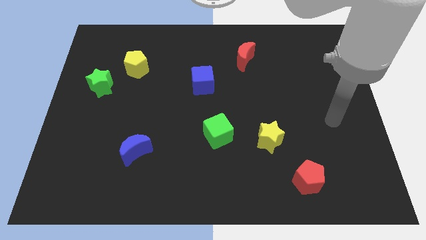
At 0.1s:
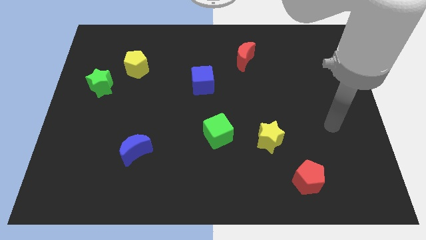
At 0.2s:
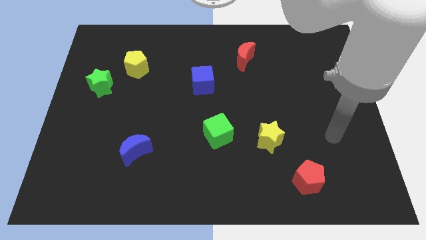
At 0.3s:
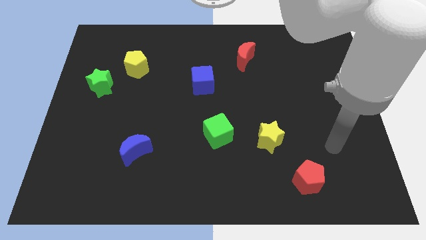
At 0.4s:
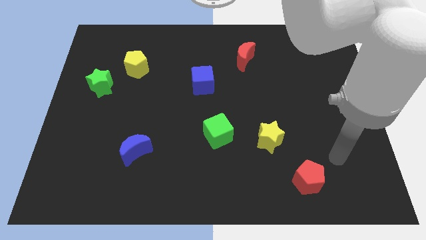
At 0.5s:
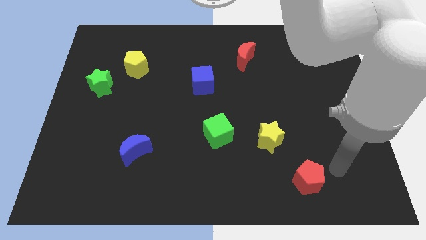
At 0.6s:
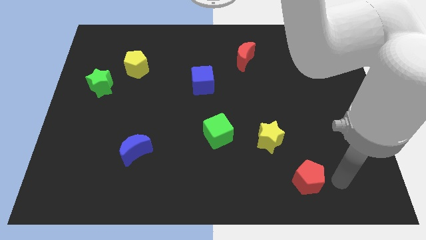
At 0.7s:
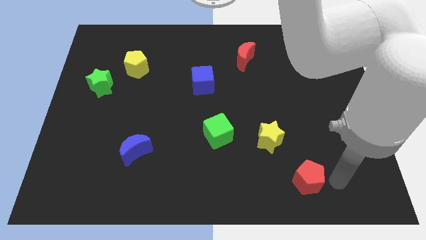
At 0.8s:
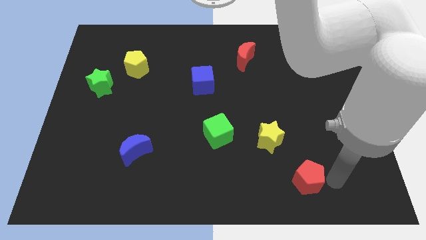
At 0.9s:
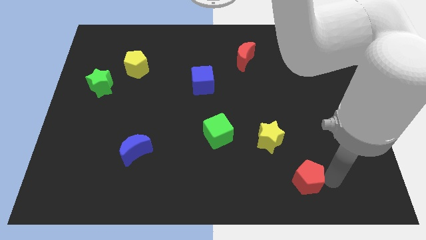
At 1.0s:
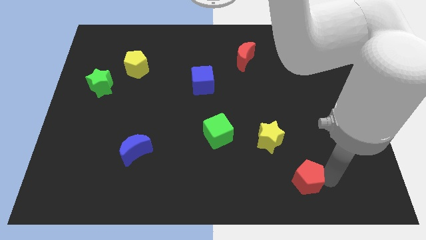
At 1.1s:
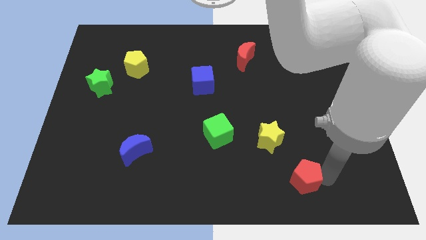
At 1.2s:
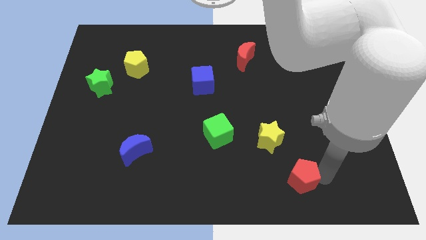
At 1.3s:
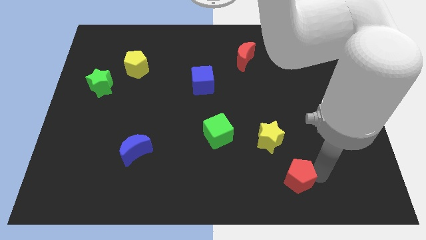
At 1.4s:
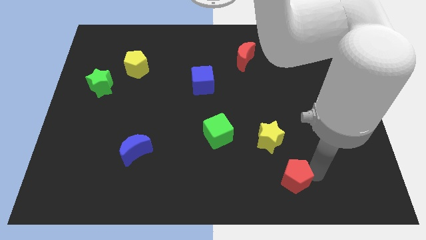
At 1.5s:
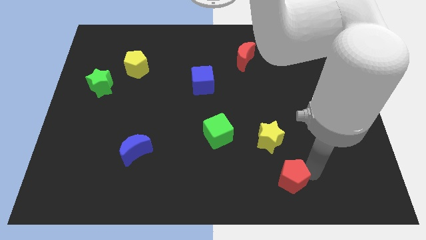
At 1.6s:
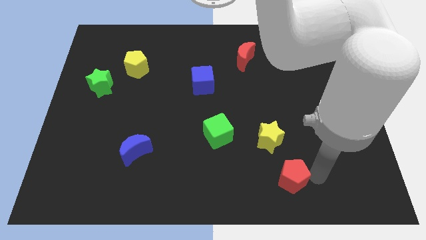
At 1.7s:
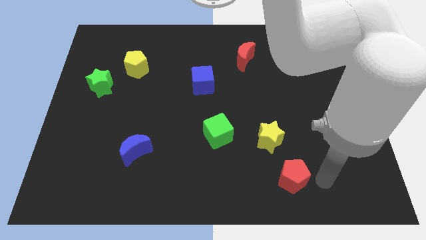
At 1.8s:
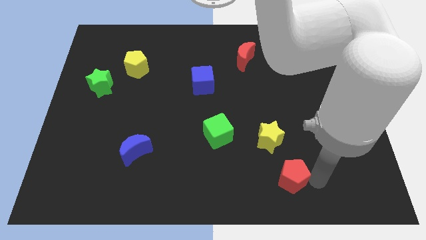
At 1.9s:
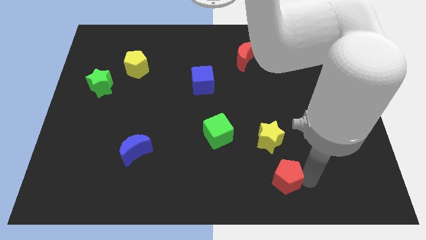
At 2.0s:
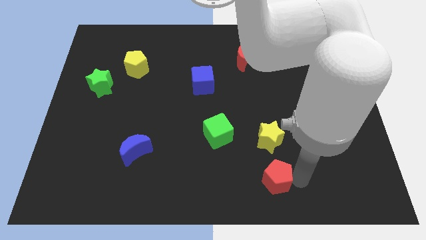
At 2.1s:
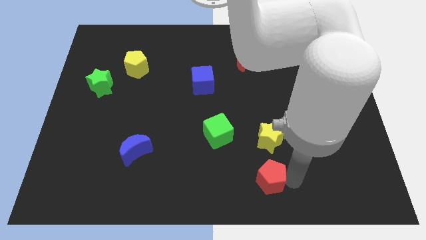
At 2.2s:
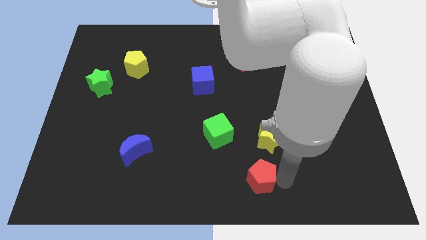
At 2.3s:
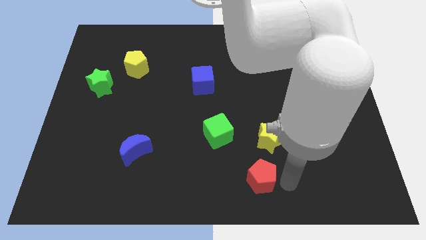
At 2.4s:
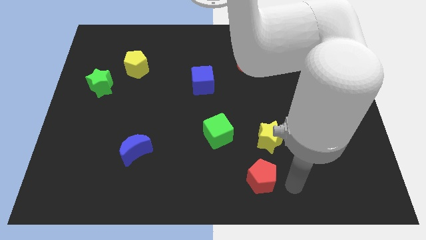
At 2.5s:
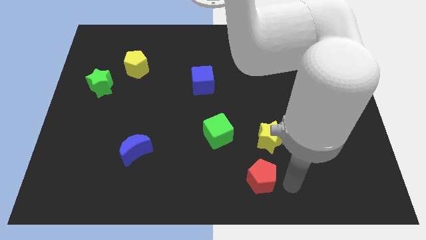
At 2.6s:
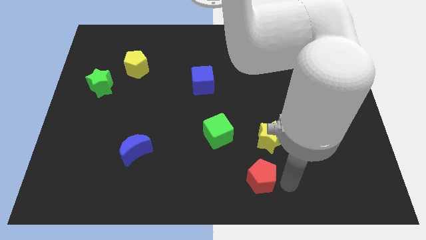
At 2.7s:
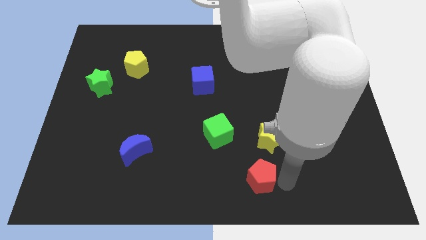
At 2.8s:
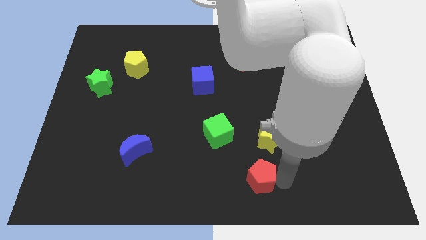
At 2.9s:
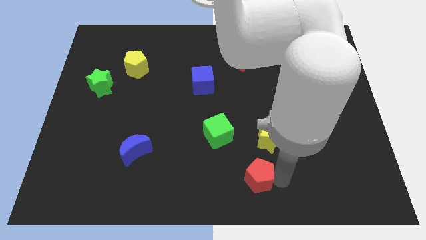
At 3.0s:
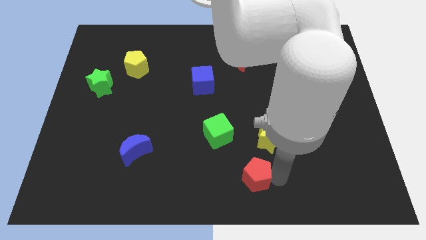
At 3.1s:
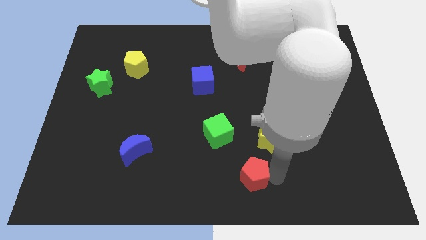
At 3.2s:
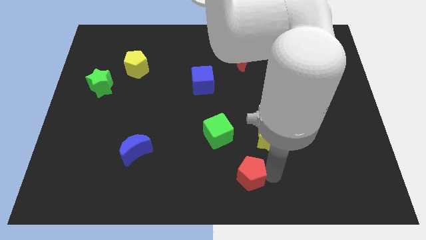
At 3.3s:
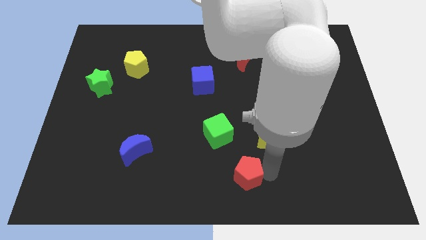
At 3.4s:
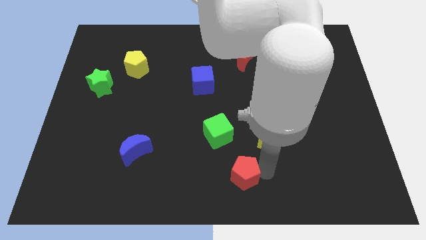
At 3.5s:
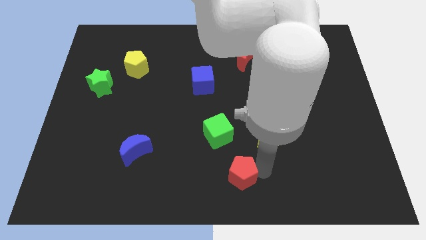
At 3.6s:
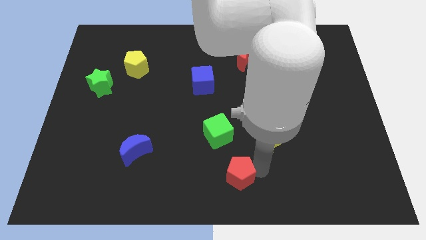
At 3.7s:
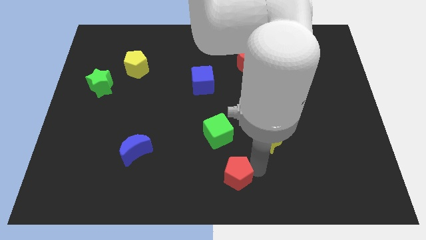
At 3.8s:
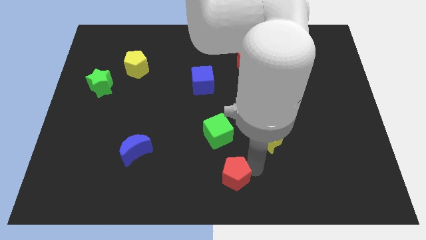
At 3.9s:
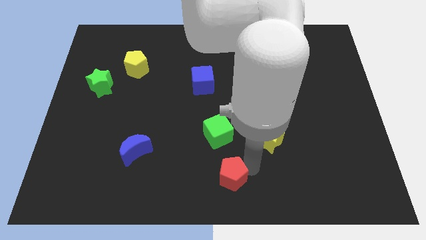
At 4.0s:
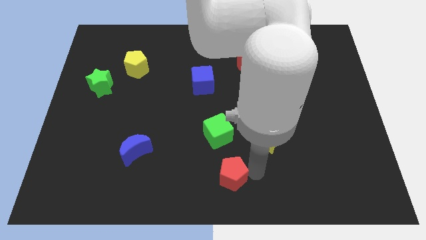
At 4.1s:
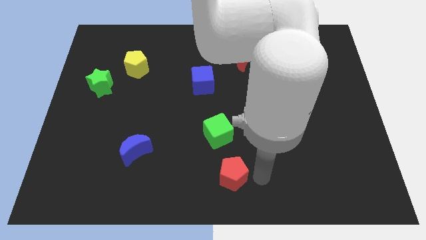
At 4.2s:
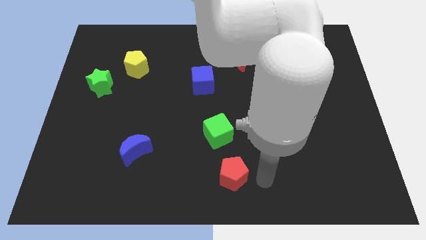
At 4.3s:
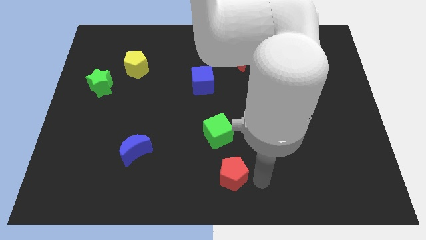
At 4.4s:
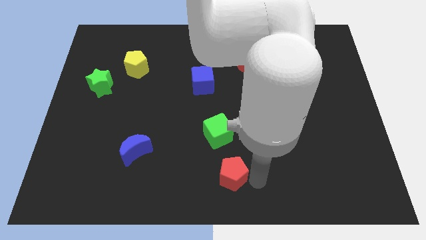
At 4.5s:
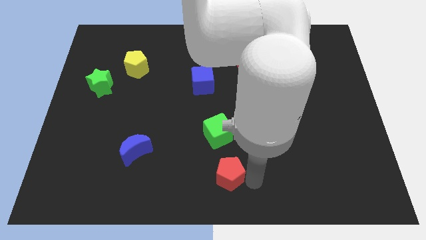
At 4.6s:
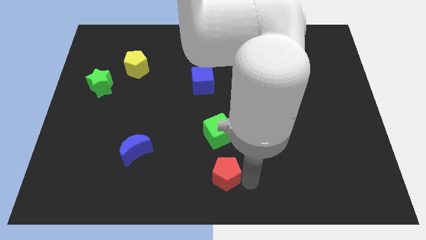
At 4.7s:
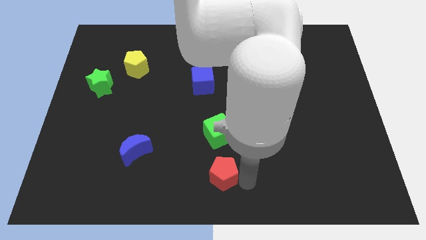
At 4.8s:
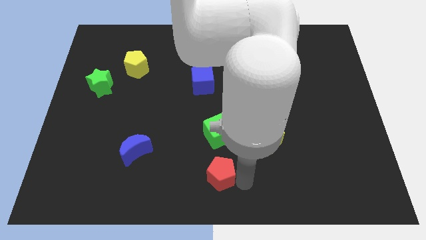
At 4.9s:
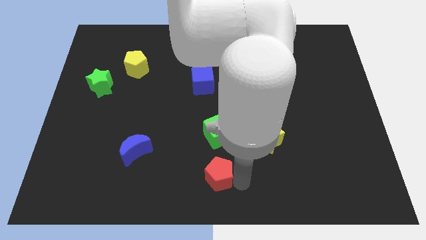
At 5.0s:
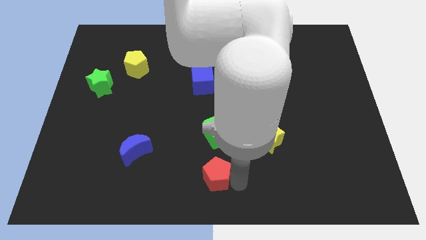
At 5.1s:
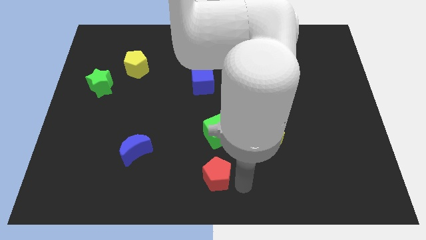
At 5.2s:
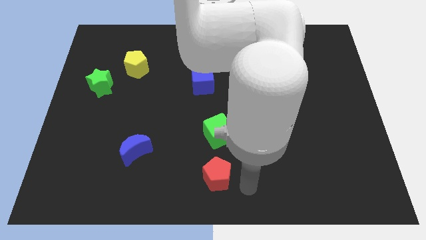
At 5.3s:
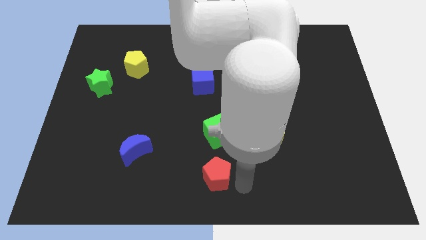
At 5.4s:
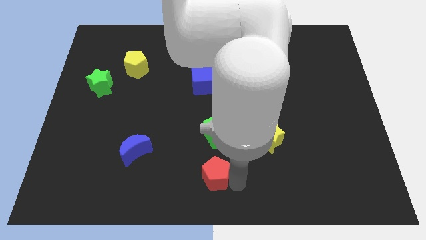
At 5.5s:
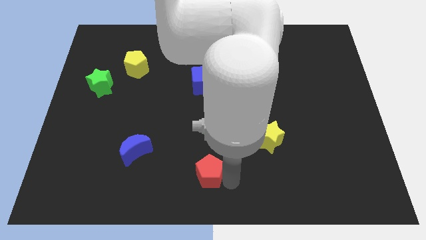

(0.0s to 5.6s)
move the red pentagon to the left

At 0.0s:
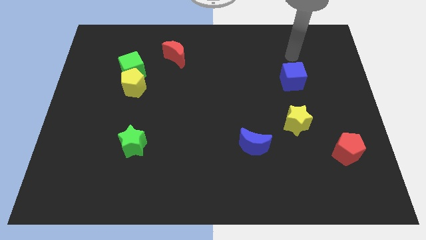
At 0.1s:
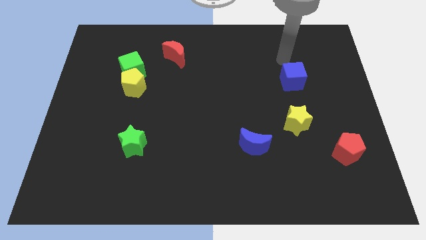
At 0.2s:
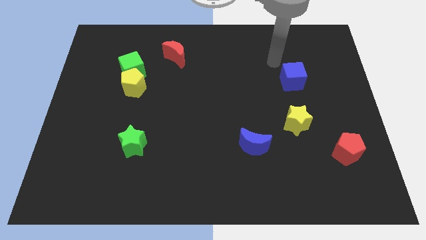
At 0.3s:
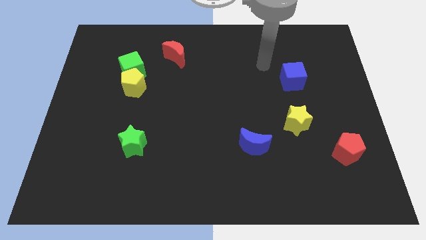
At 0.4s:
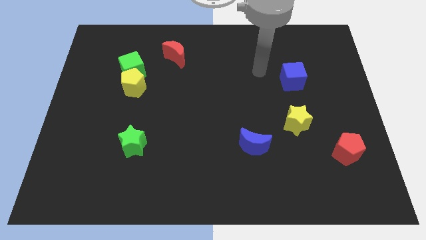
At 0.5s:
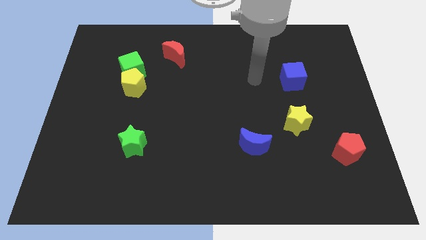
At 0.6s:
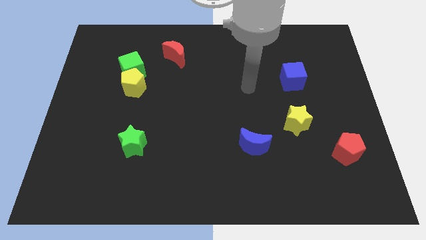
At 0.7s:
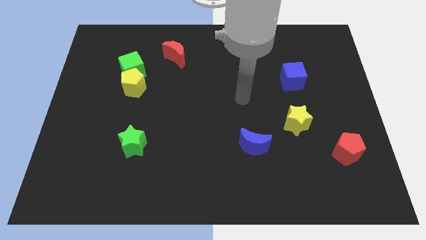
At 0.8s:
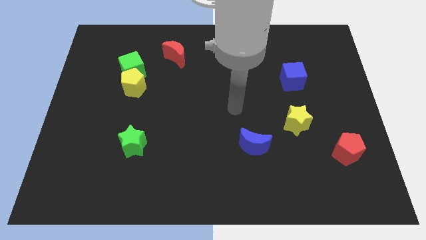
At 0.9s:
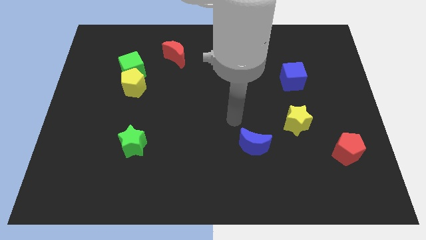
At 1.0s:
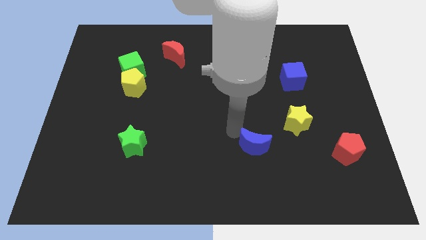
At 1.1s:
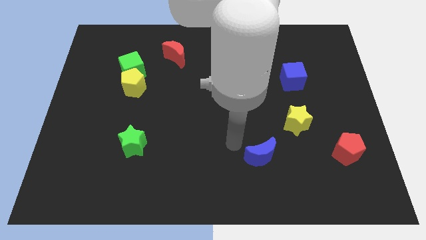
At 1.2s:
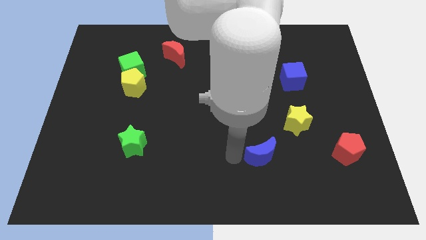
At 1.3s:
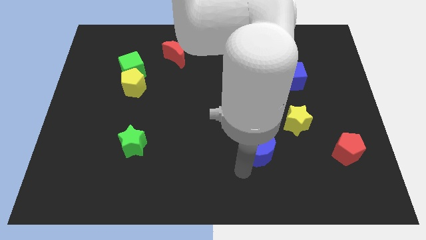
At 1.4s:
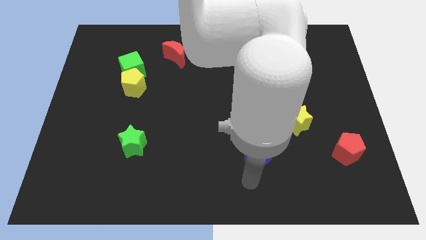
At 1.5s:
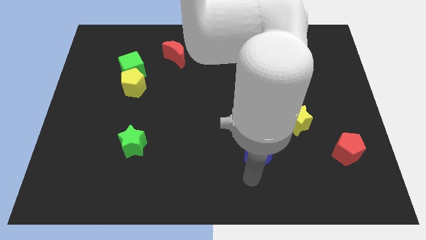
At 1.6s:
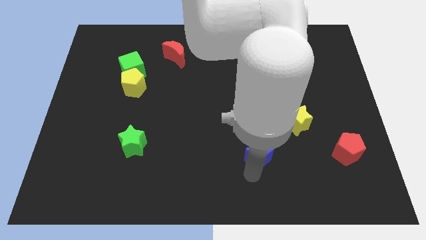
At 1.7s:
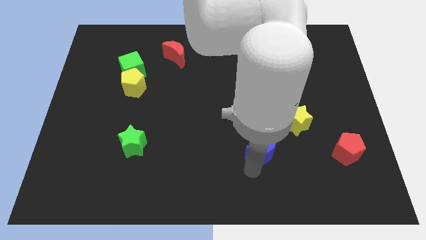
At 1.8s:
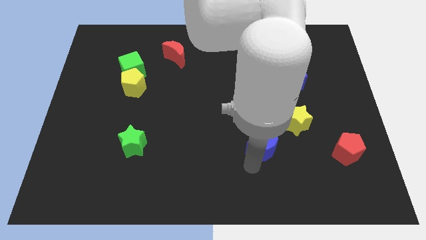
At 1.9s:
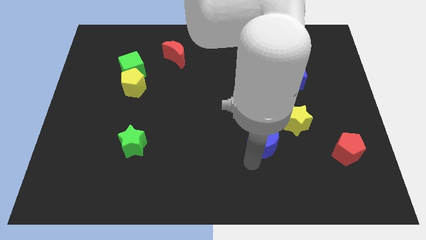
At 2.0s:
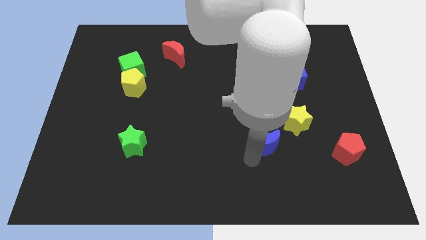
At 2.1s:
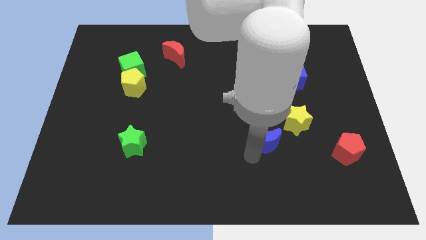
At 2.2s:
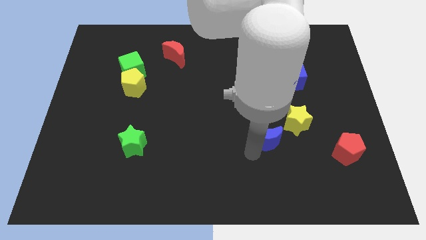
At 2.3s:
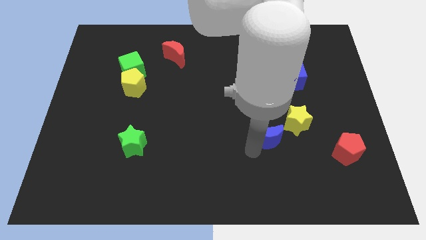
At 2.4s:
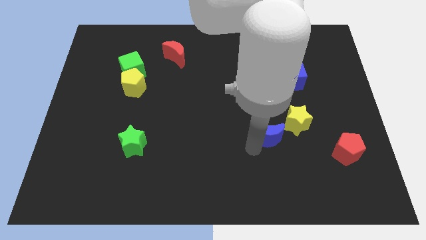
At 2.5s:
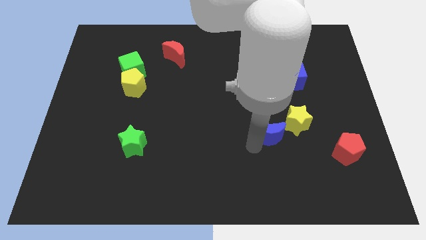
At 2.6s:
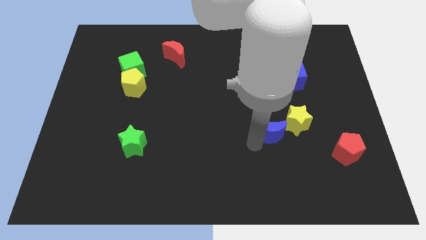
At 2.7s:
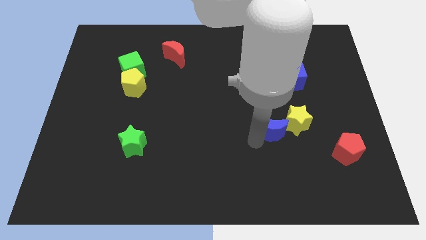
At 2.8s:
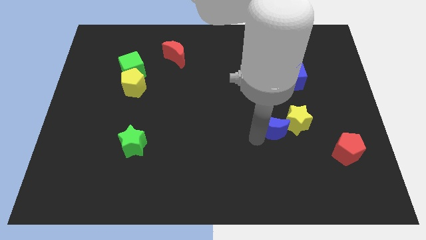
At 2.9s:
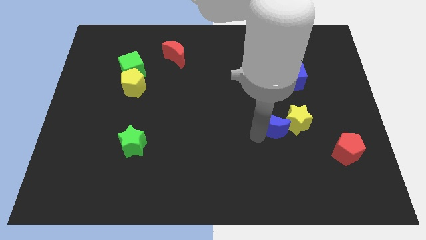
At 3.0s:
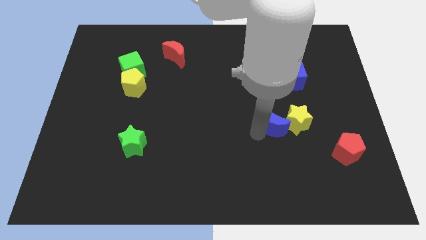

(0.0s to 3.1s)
slightly move the blue moon upwards and right diagonally
